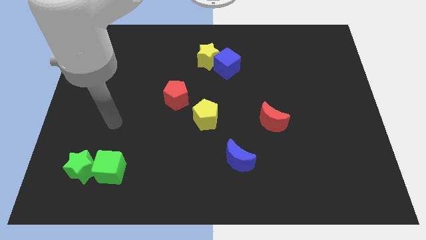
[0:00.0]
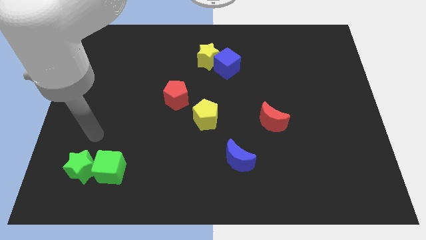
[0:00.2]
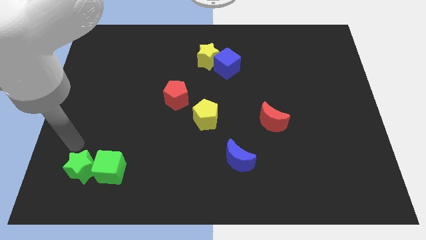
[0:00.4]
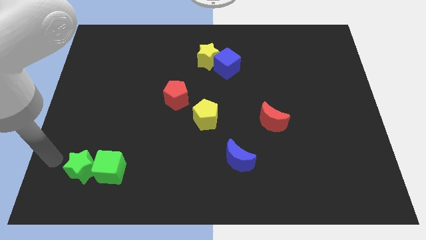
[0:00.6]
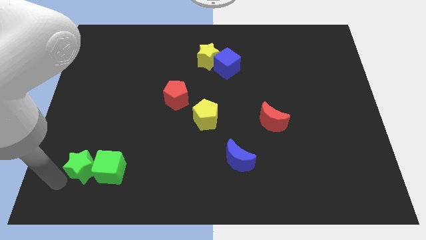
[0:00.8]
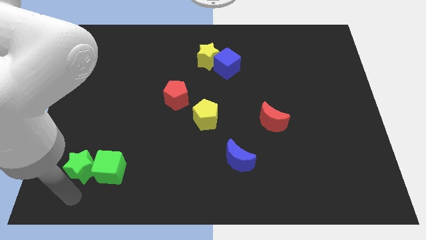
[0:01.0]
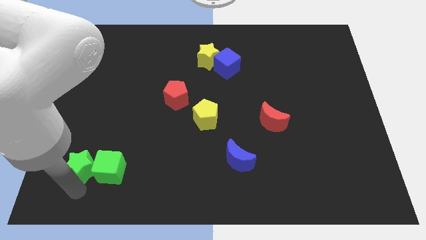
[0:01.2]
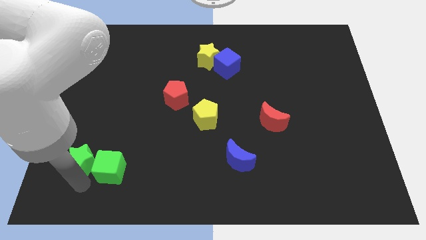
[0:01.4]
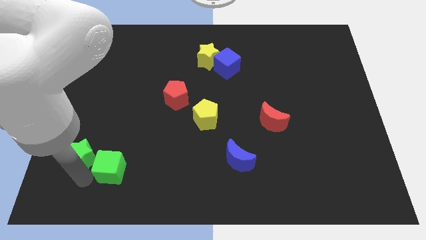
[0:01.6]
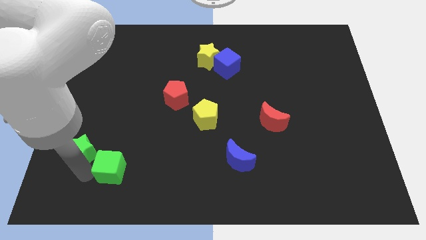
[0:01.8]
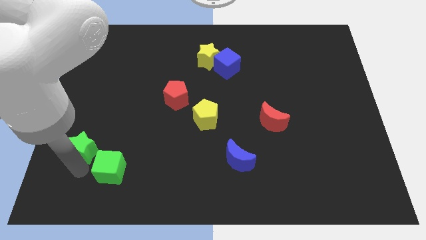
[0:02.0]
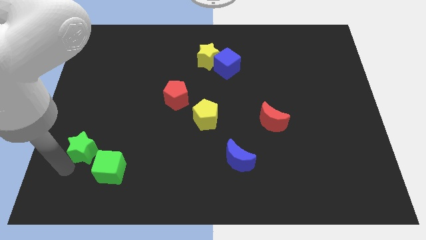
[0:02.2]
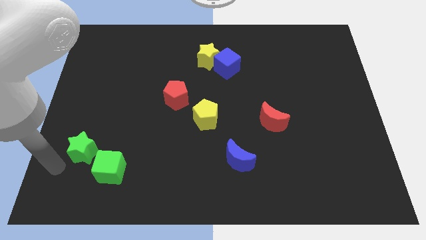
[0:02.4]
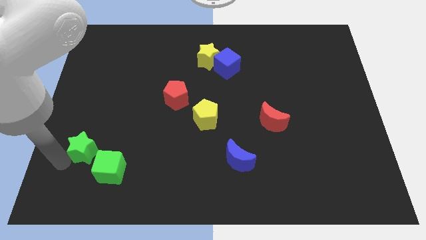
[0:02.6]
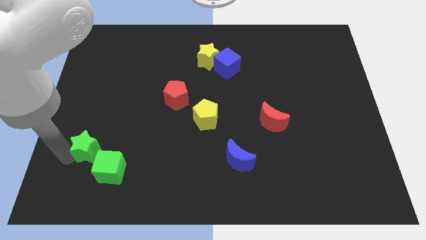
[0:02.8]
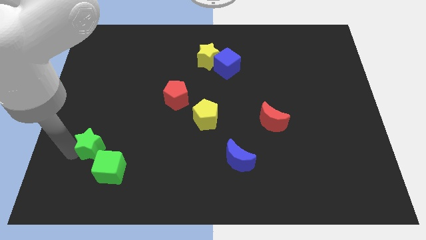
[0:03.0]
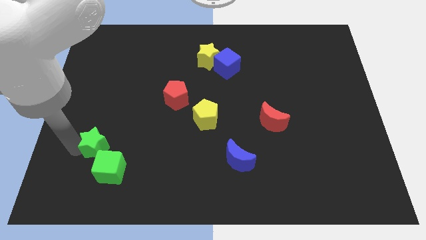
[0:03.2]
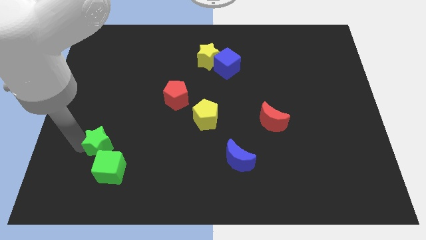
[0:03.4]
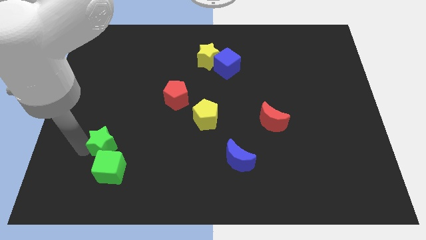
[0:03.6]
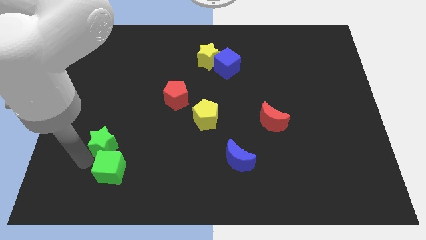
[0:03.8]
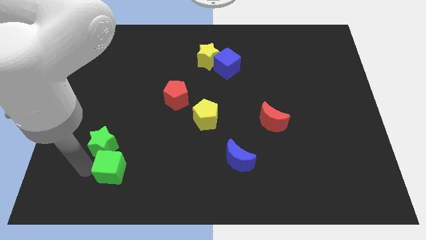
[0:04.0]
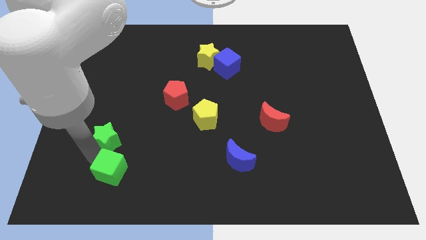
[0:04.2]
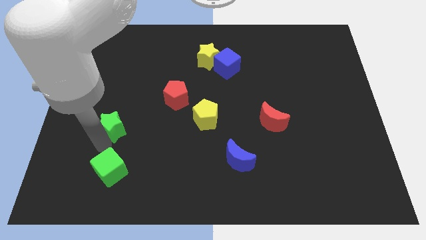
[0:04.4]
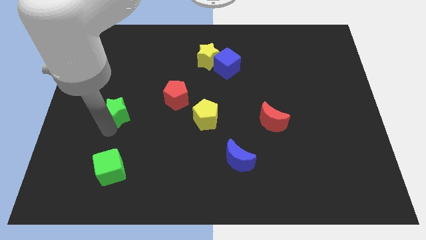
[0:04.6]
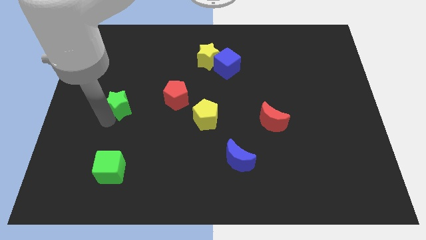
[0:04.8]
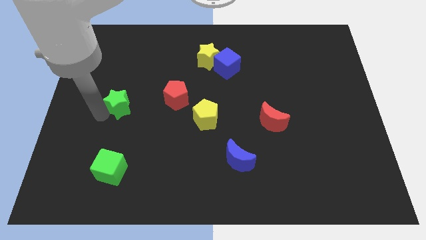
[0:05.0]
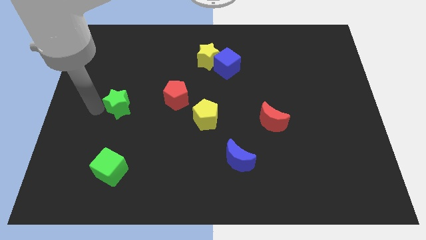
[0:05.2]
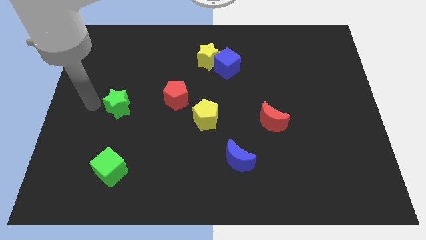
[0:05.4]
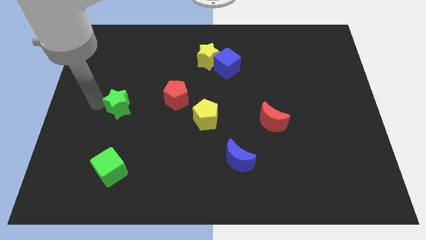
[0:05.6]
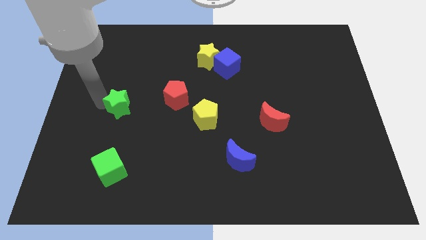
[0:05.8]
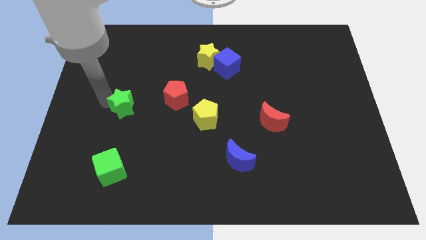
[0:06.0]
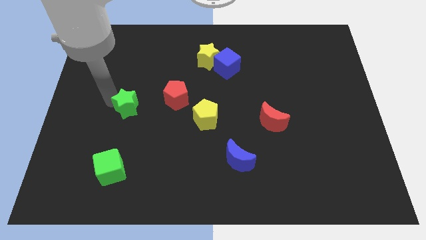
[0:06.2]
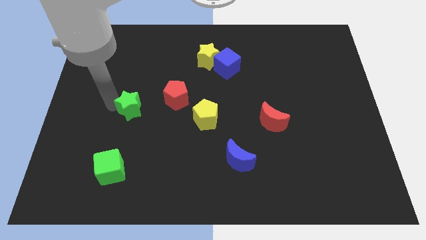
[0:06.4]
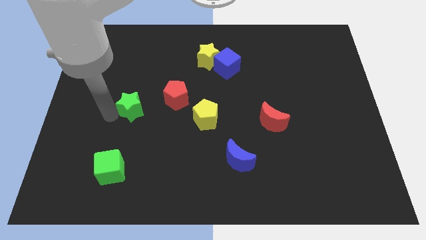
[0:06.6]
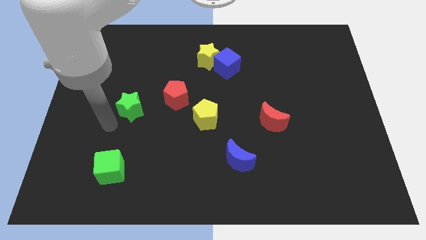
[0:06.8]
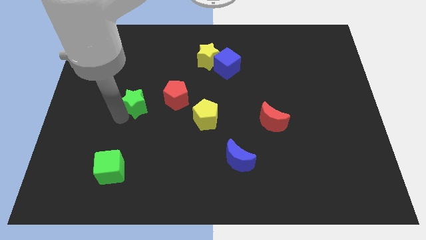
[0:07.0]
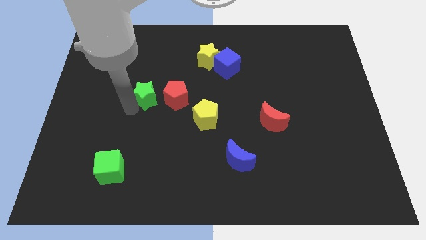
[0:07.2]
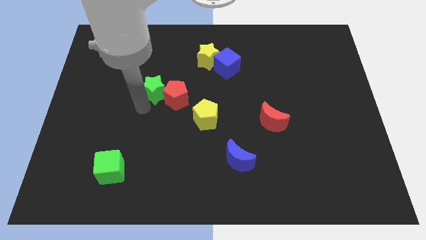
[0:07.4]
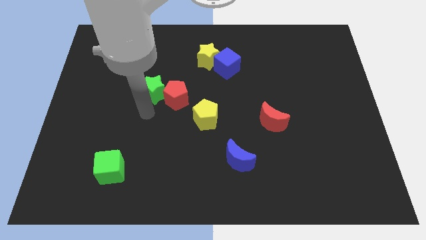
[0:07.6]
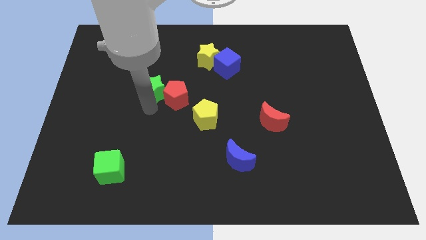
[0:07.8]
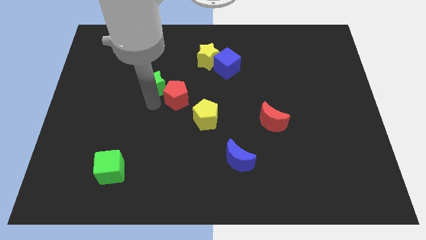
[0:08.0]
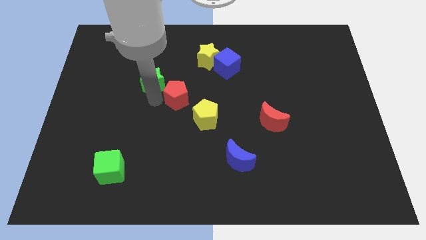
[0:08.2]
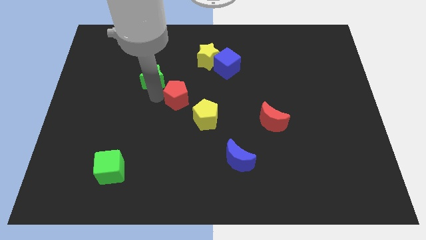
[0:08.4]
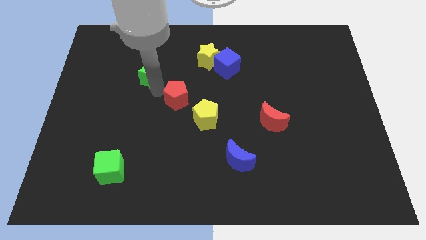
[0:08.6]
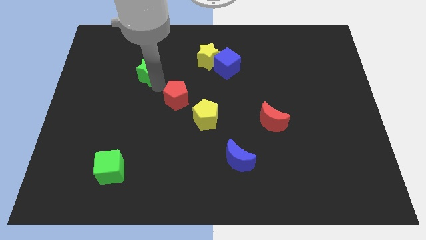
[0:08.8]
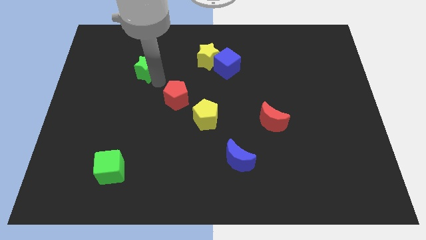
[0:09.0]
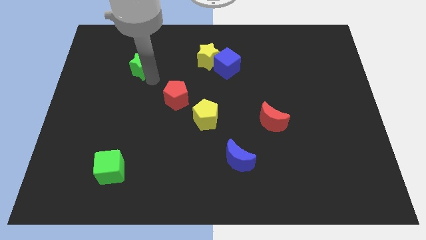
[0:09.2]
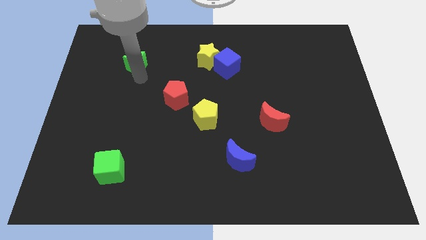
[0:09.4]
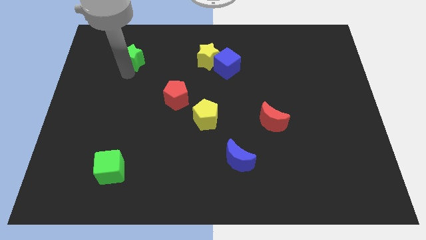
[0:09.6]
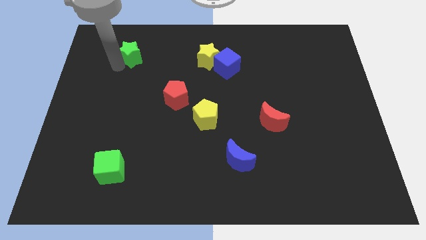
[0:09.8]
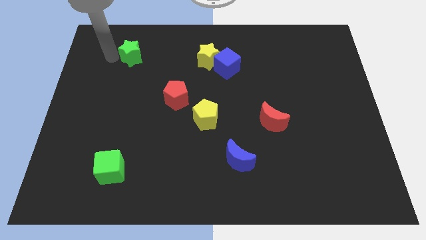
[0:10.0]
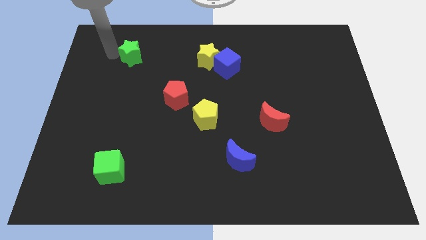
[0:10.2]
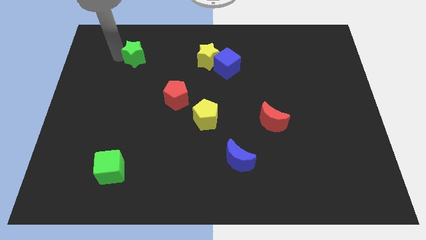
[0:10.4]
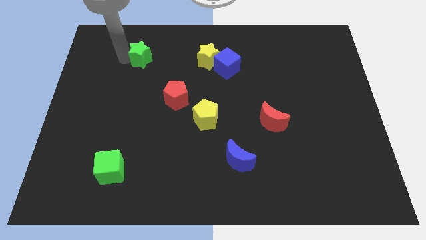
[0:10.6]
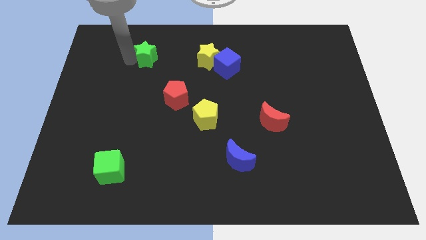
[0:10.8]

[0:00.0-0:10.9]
slide the green star left of the yellow star

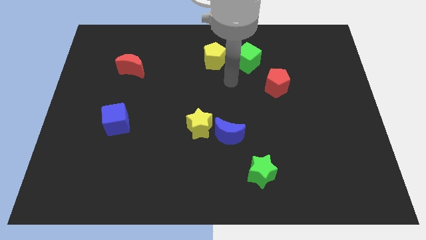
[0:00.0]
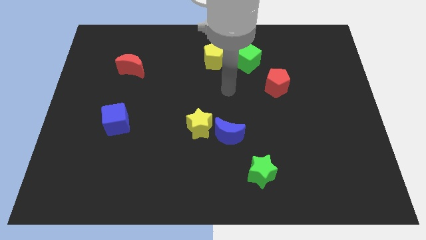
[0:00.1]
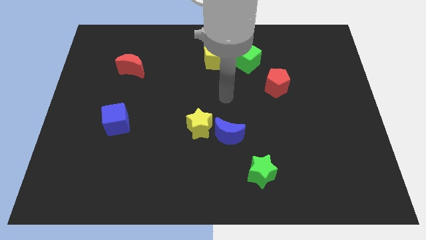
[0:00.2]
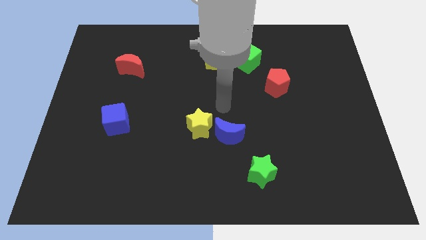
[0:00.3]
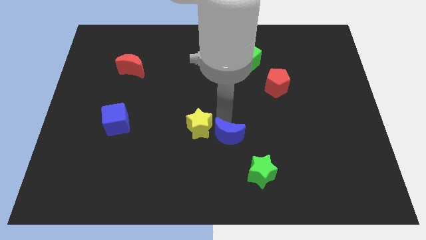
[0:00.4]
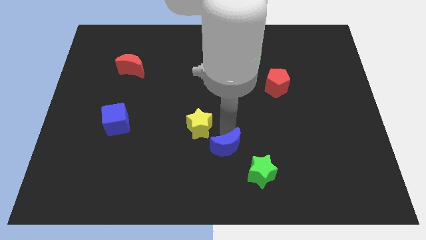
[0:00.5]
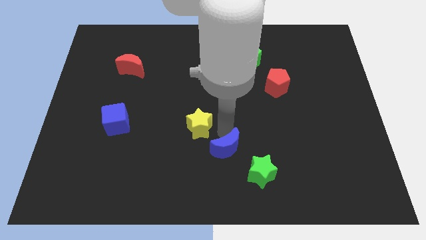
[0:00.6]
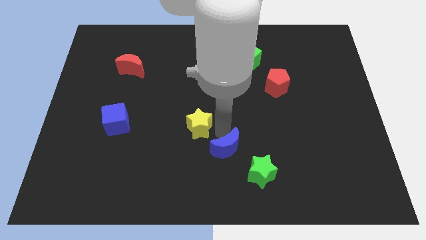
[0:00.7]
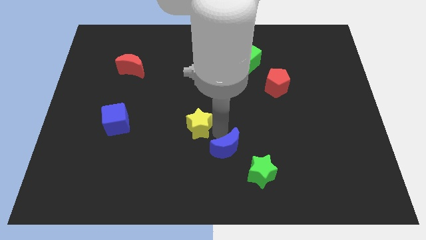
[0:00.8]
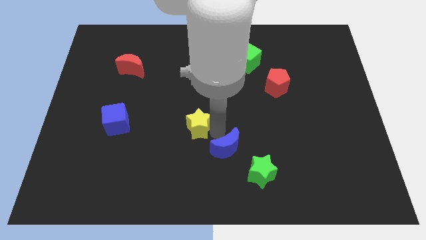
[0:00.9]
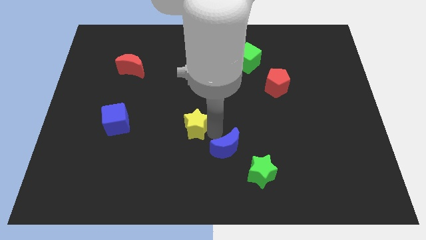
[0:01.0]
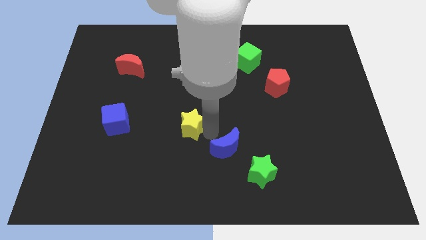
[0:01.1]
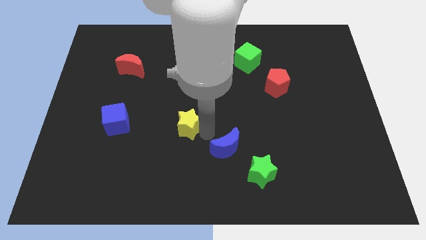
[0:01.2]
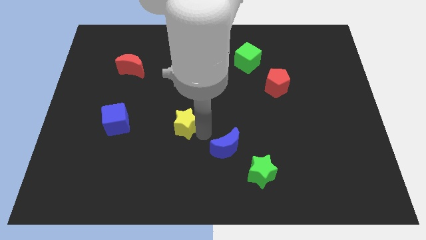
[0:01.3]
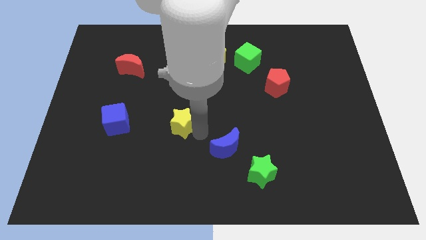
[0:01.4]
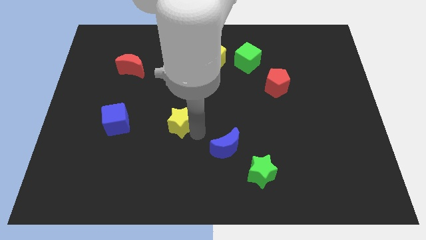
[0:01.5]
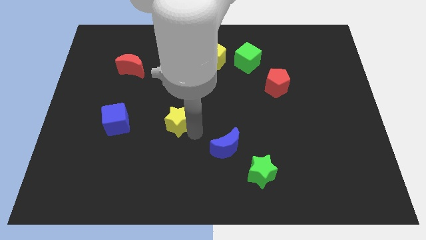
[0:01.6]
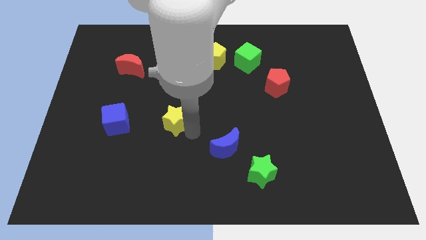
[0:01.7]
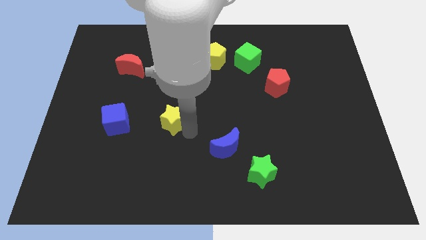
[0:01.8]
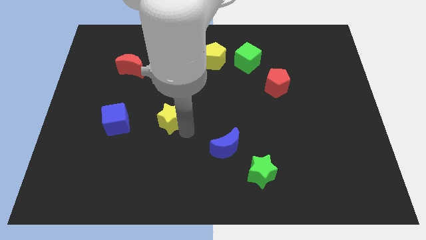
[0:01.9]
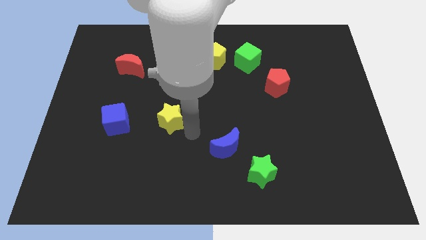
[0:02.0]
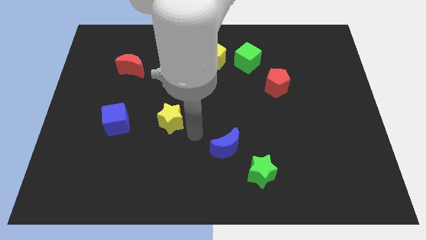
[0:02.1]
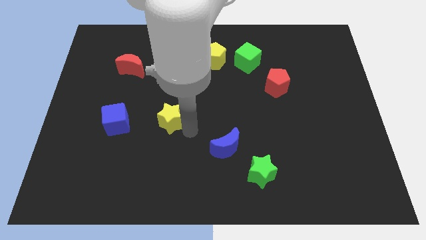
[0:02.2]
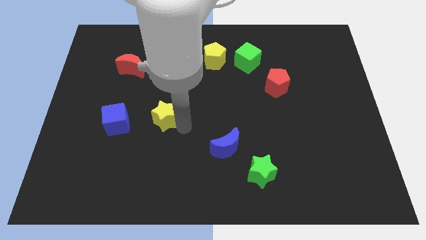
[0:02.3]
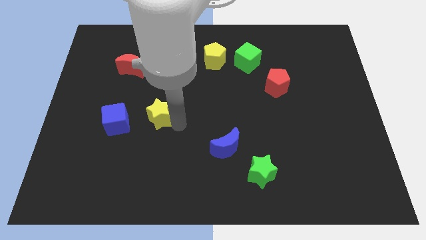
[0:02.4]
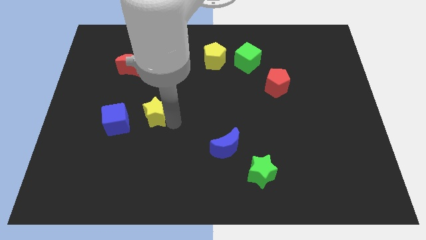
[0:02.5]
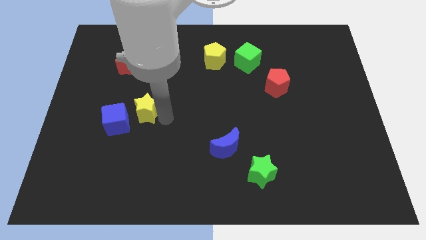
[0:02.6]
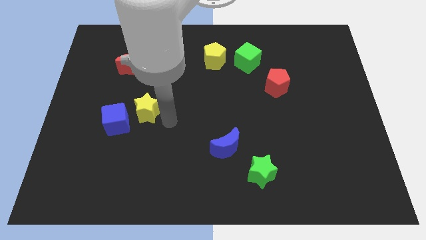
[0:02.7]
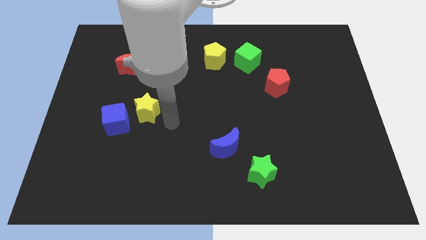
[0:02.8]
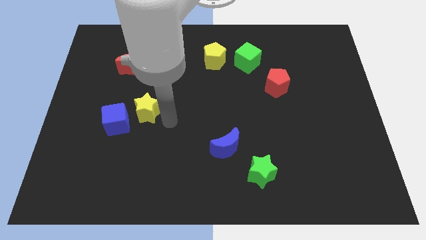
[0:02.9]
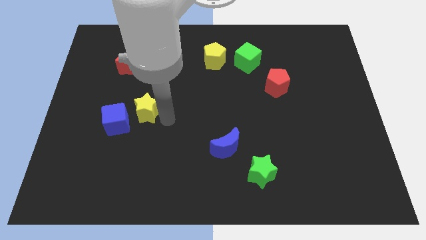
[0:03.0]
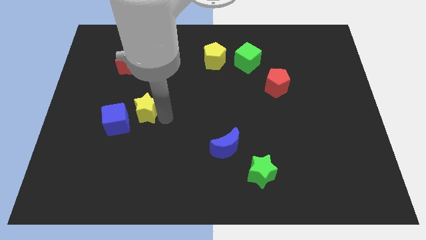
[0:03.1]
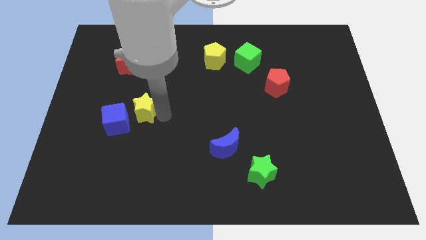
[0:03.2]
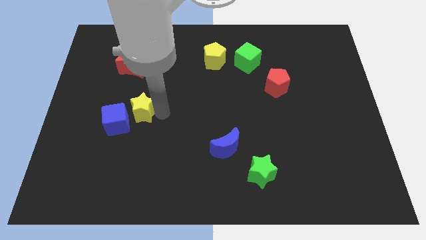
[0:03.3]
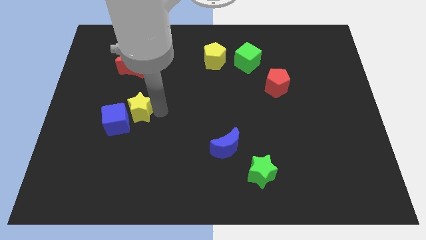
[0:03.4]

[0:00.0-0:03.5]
put the yellow star to the bottom of the red moon
